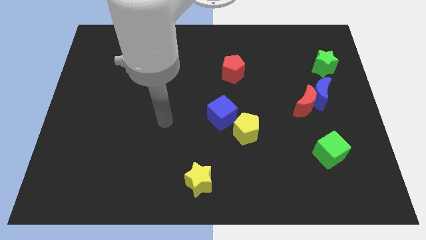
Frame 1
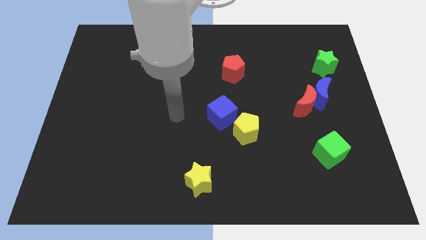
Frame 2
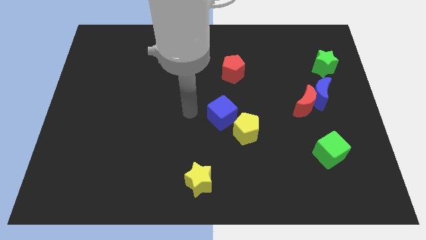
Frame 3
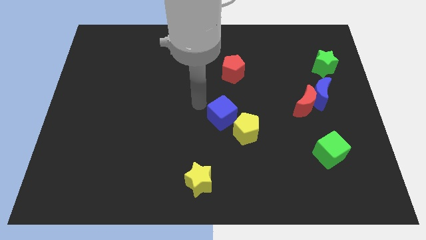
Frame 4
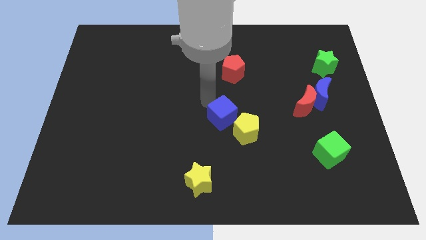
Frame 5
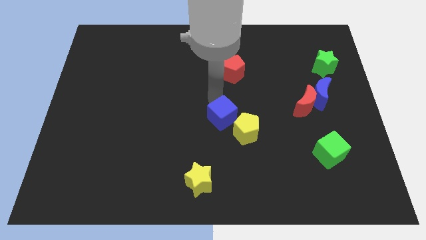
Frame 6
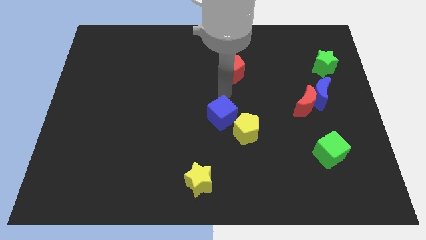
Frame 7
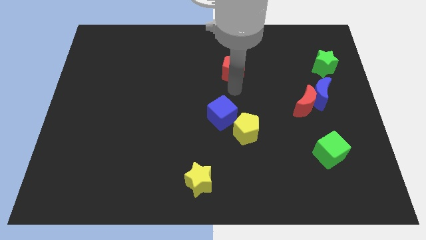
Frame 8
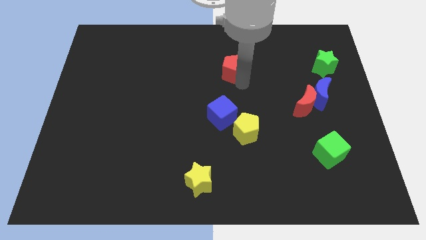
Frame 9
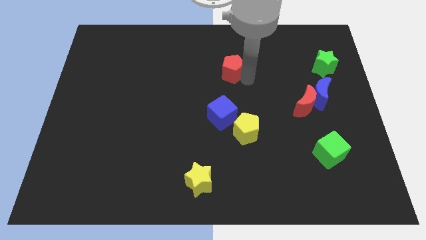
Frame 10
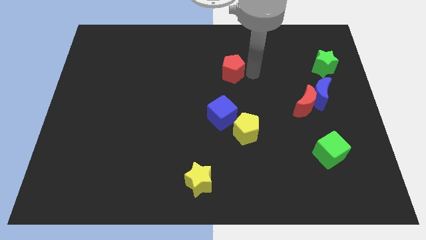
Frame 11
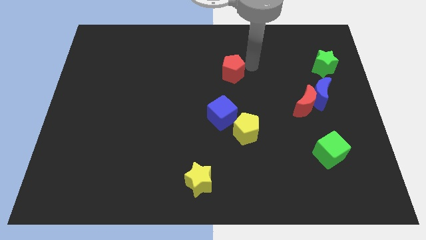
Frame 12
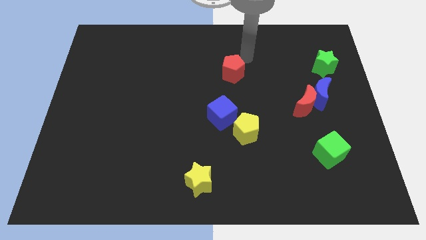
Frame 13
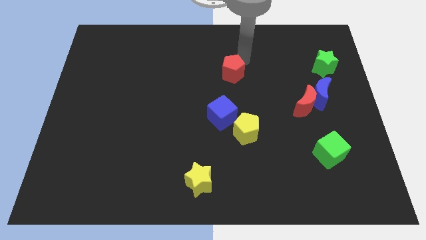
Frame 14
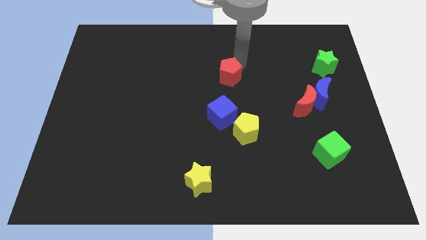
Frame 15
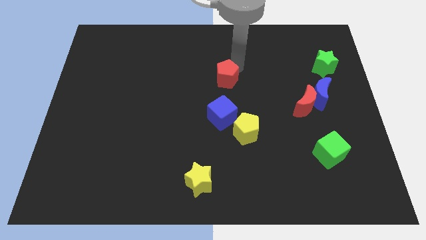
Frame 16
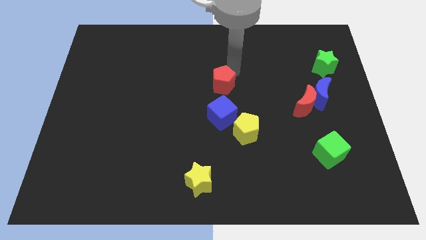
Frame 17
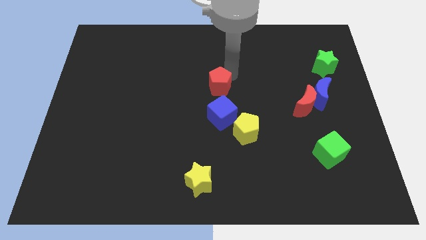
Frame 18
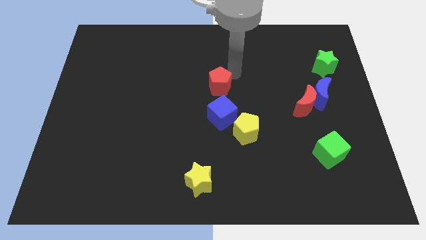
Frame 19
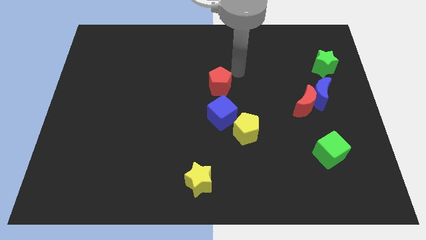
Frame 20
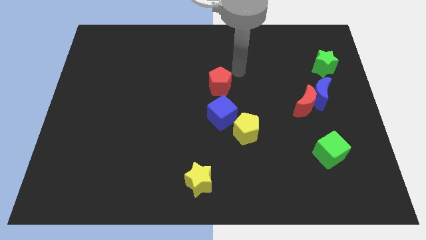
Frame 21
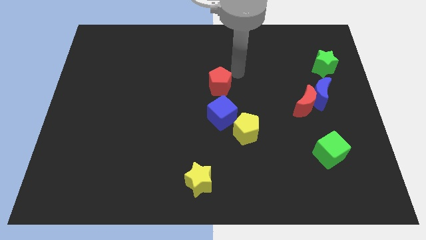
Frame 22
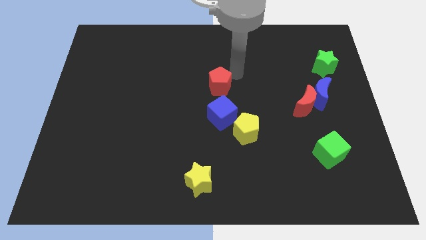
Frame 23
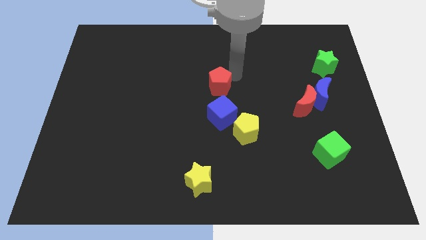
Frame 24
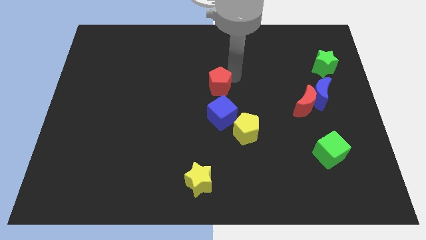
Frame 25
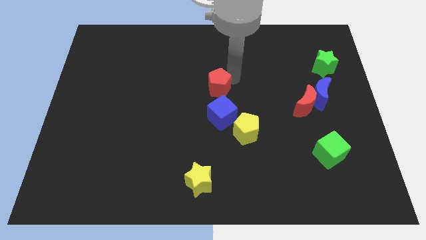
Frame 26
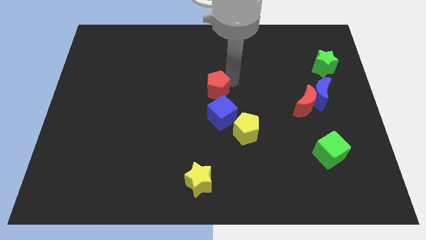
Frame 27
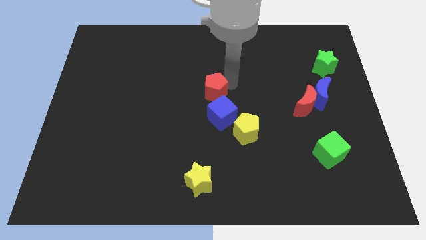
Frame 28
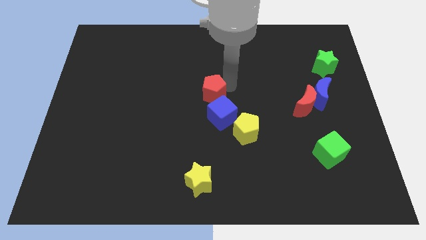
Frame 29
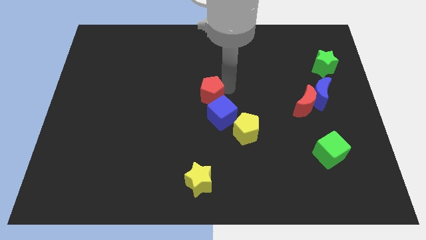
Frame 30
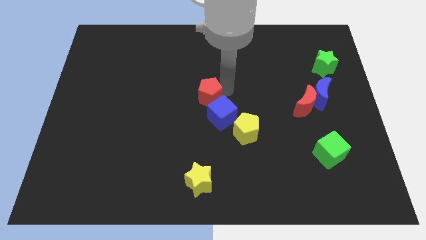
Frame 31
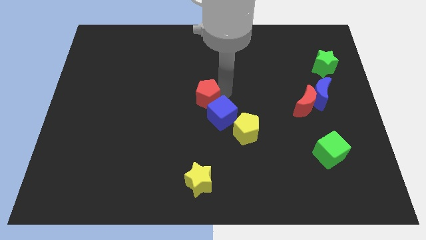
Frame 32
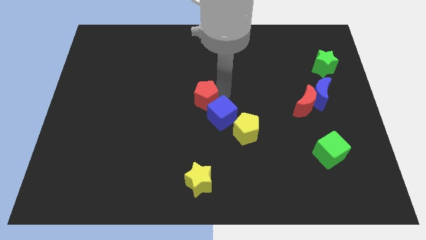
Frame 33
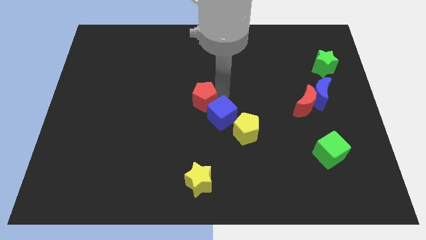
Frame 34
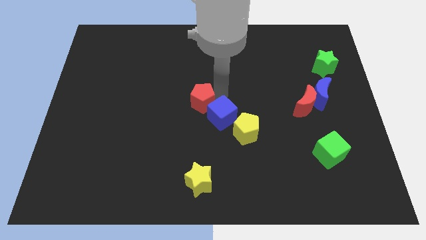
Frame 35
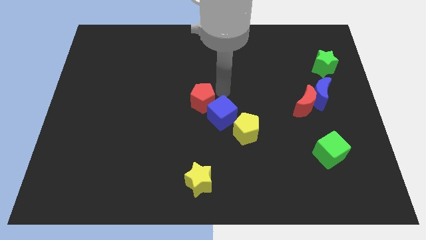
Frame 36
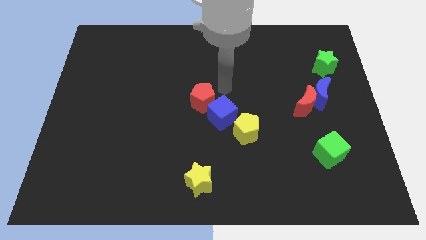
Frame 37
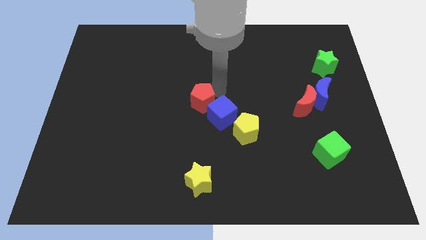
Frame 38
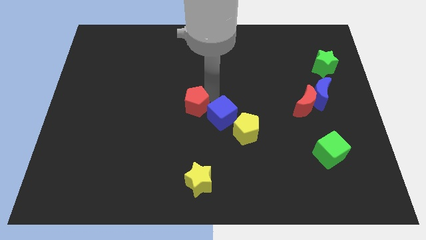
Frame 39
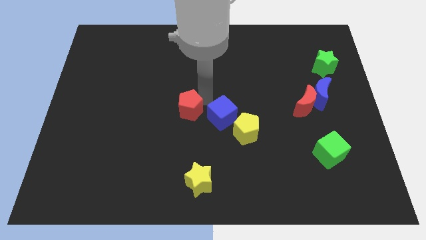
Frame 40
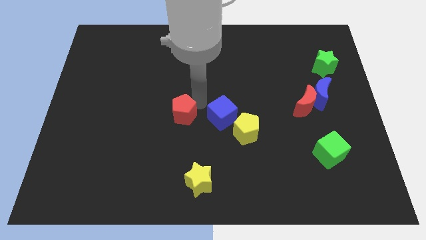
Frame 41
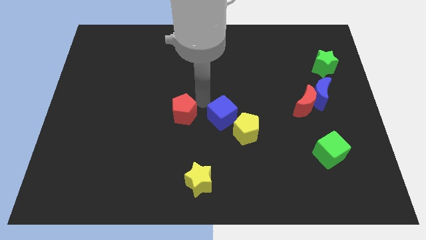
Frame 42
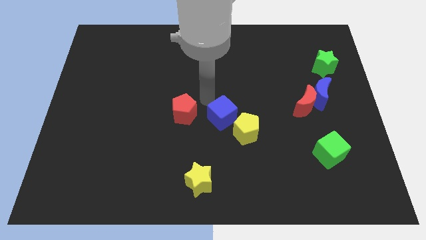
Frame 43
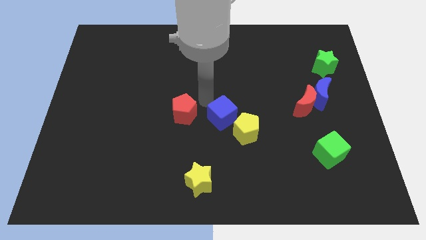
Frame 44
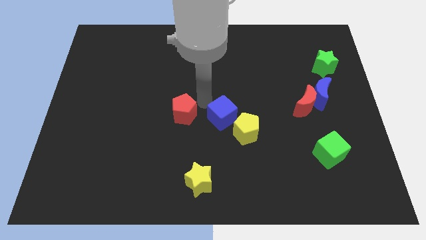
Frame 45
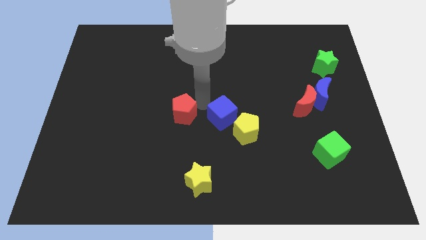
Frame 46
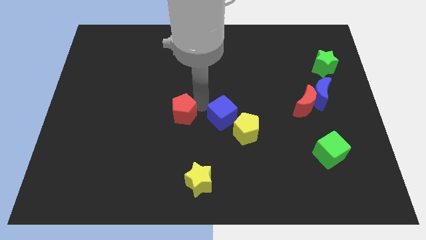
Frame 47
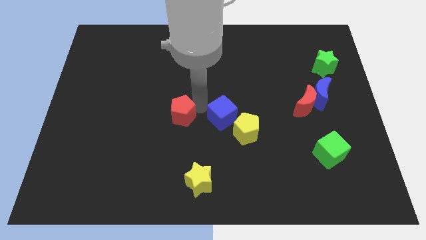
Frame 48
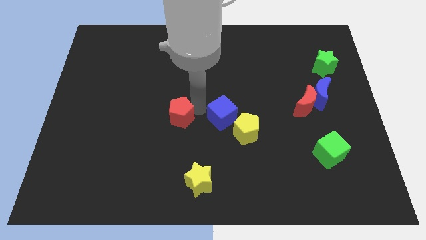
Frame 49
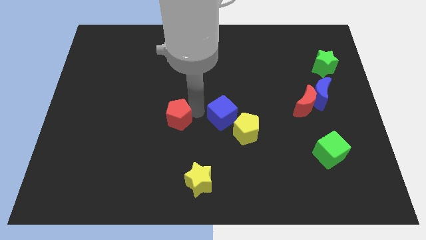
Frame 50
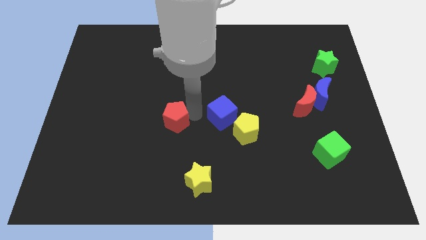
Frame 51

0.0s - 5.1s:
push the red pentagon downwards and to the left

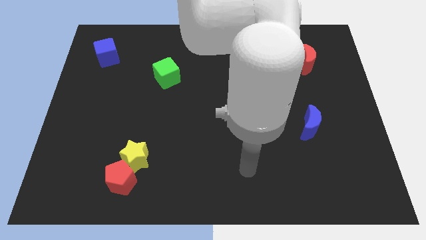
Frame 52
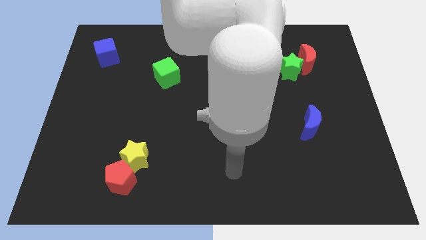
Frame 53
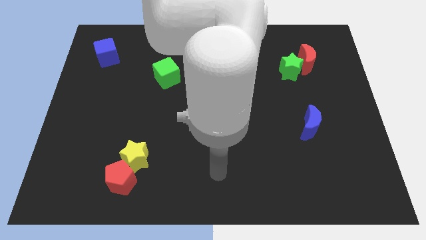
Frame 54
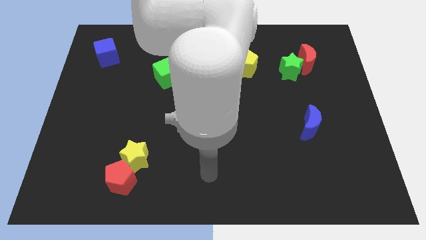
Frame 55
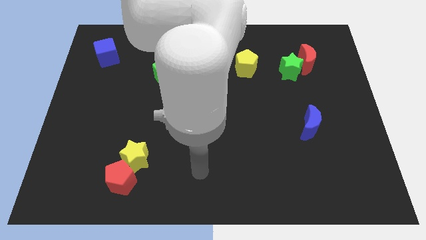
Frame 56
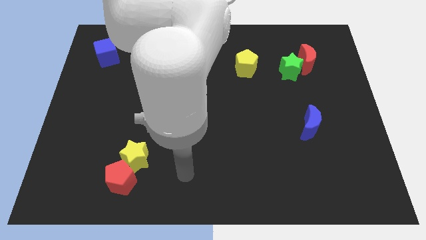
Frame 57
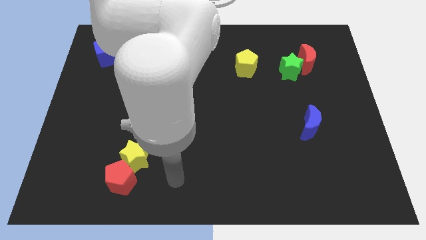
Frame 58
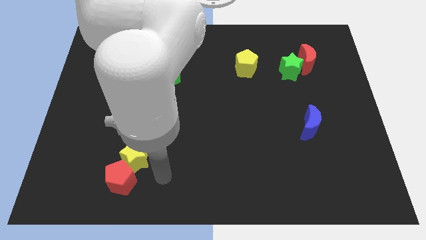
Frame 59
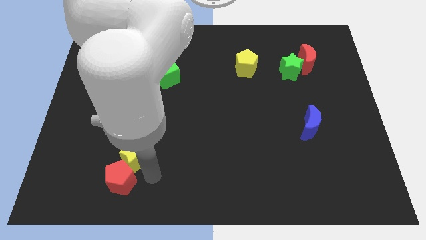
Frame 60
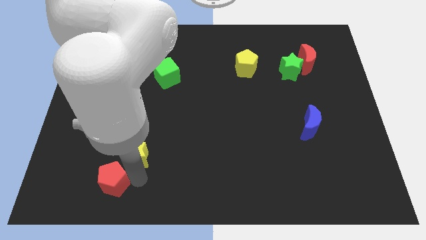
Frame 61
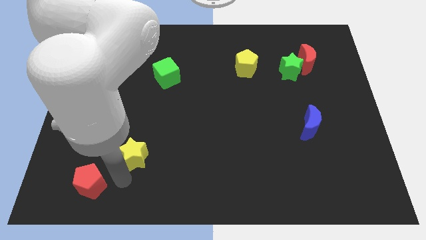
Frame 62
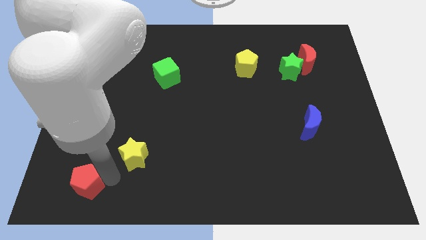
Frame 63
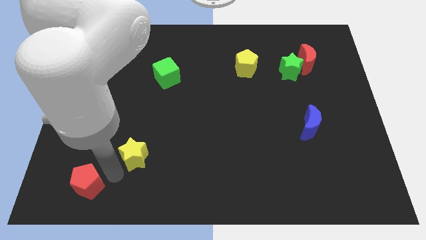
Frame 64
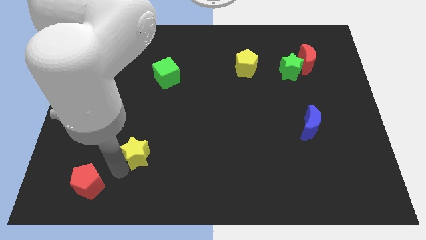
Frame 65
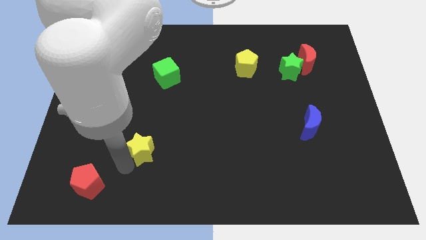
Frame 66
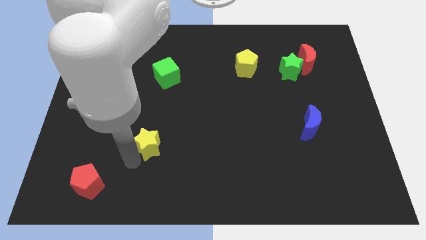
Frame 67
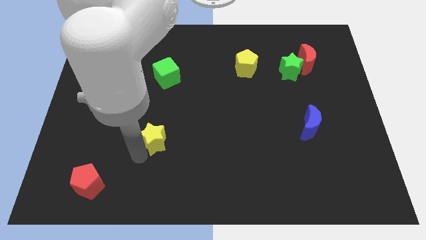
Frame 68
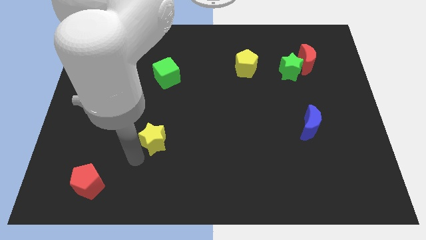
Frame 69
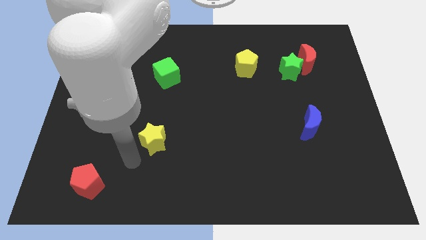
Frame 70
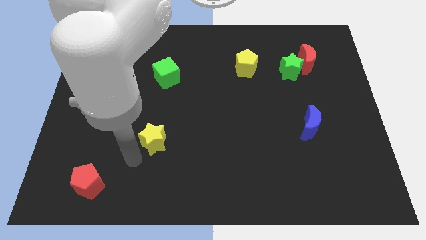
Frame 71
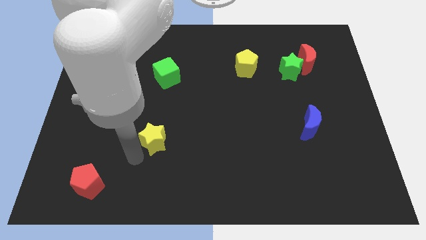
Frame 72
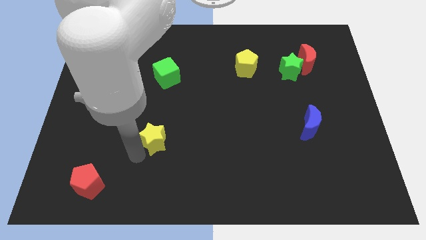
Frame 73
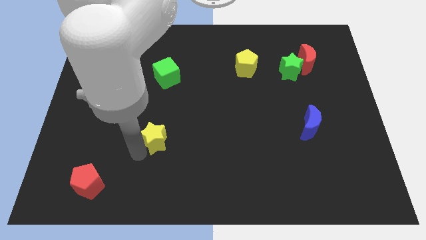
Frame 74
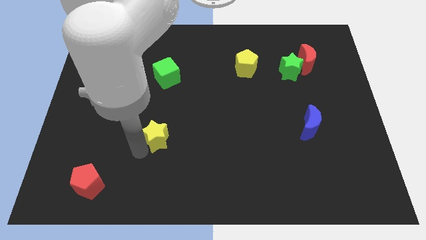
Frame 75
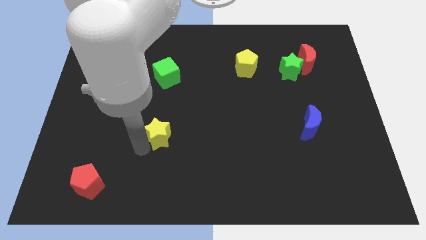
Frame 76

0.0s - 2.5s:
slide the yellow star a bit up and right diagonally

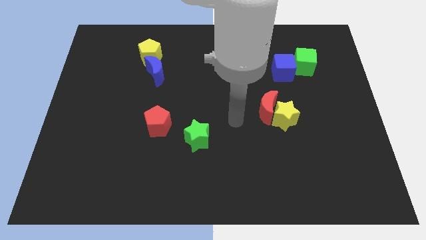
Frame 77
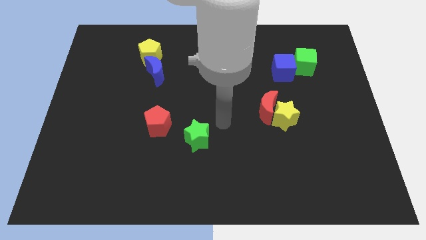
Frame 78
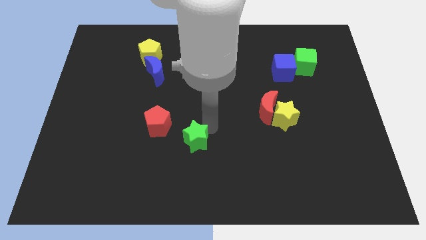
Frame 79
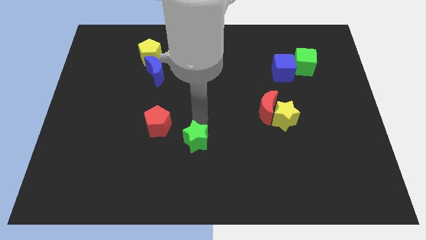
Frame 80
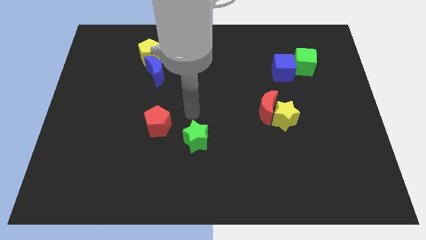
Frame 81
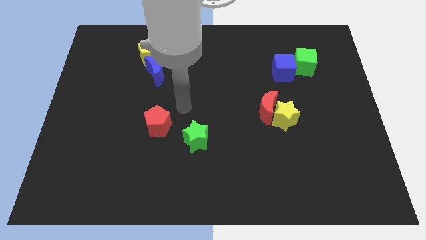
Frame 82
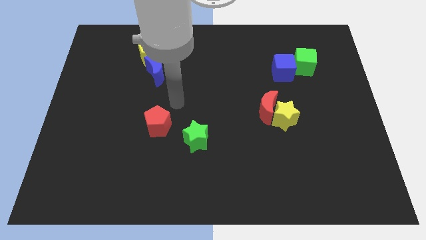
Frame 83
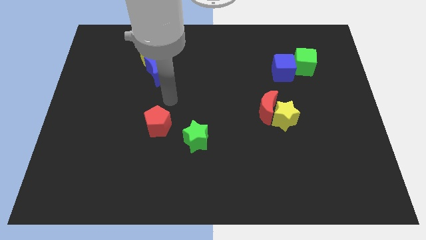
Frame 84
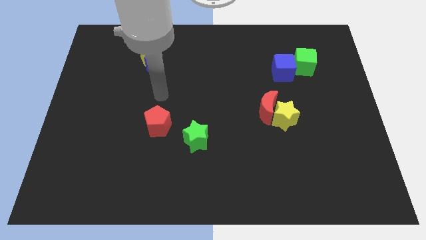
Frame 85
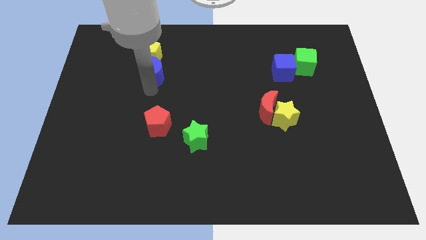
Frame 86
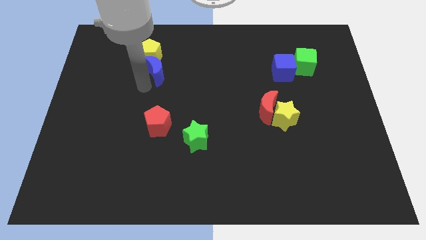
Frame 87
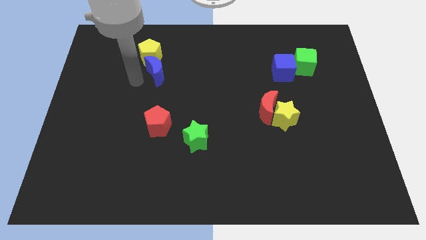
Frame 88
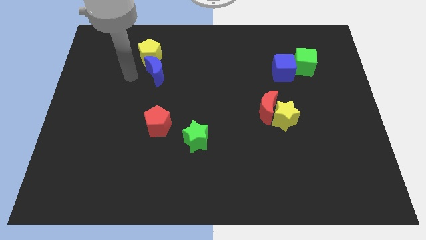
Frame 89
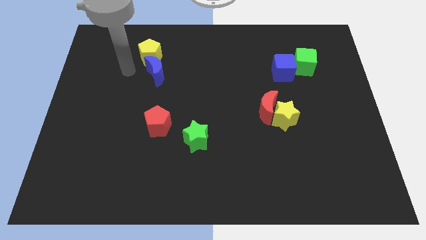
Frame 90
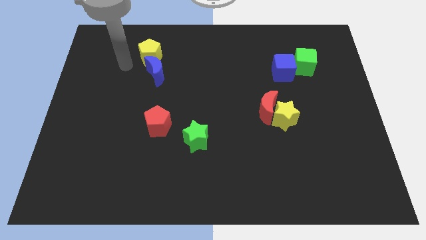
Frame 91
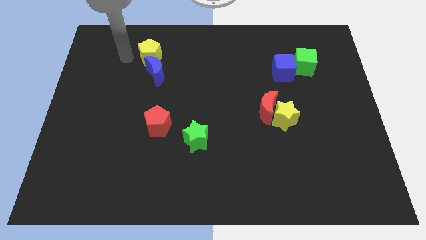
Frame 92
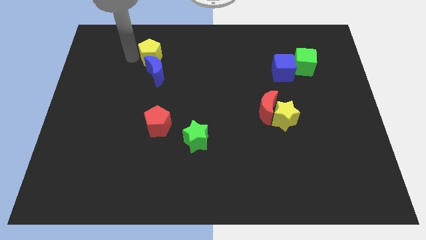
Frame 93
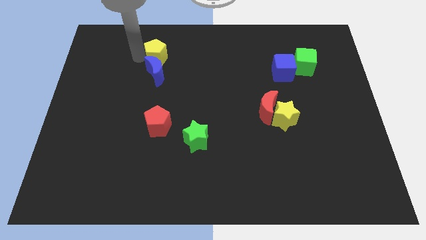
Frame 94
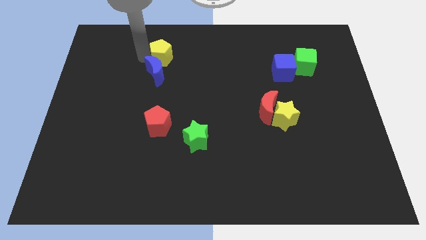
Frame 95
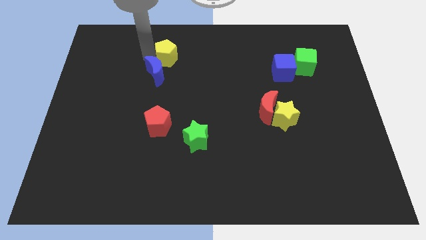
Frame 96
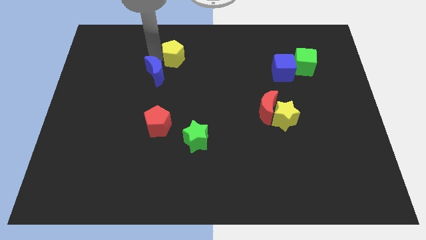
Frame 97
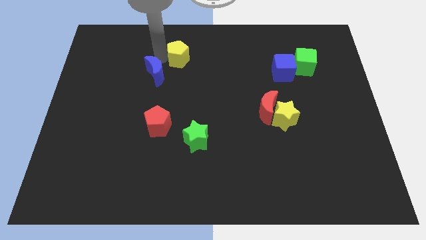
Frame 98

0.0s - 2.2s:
slide the yellow pentagon slightly to the right
